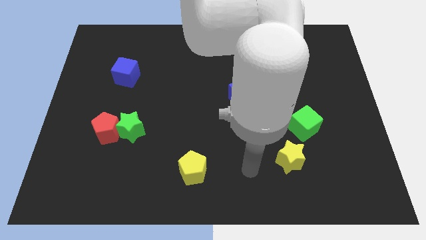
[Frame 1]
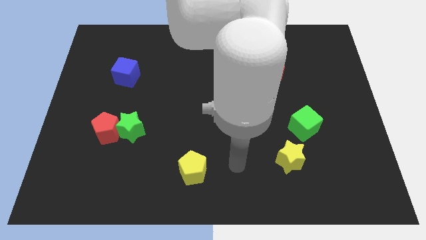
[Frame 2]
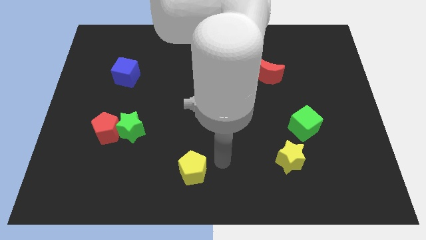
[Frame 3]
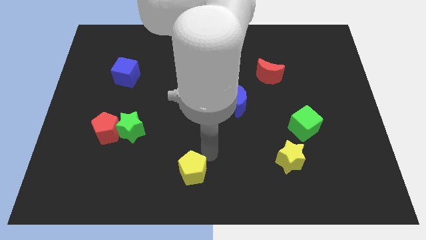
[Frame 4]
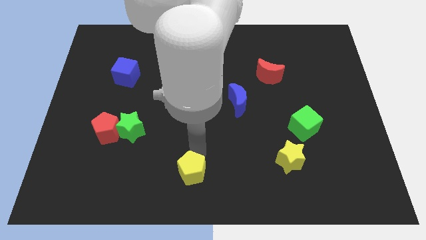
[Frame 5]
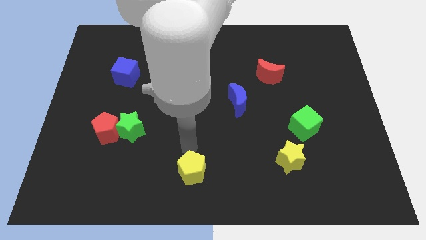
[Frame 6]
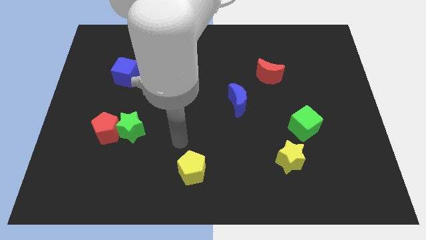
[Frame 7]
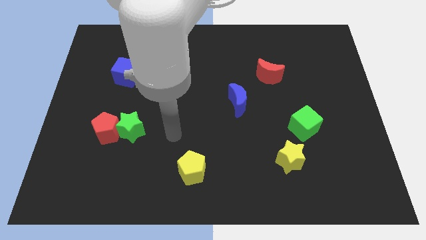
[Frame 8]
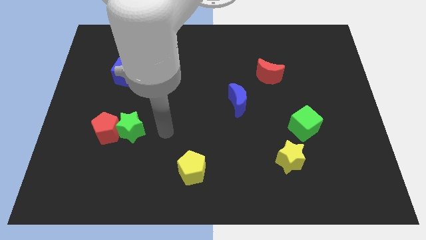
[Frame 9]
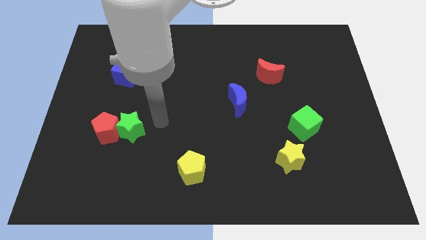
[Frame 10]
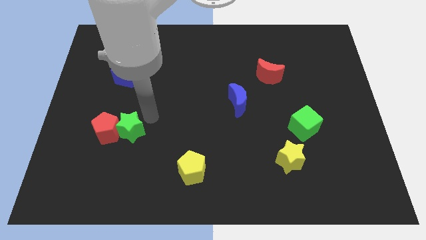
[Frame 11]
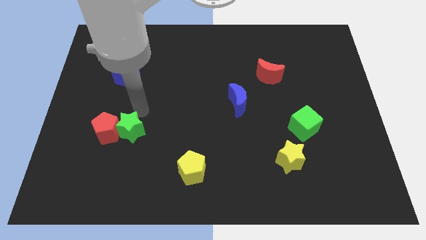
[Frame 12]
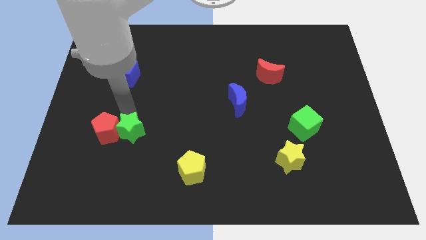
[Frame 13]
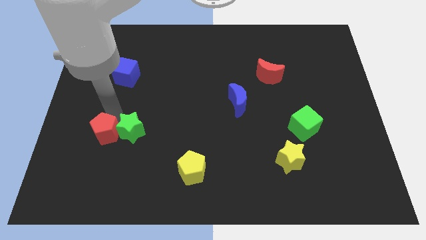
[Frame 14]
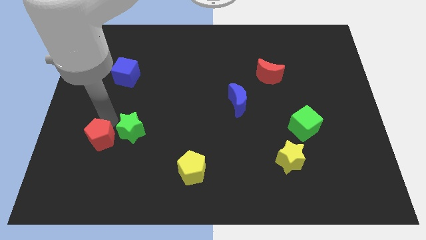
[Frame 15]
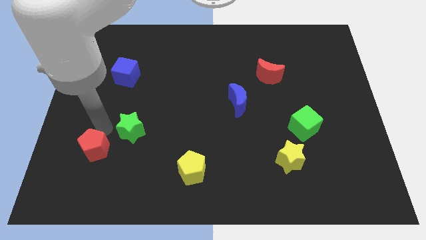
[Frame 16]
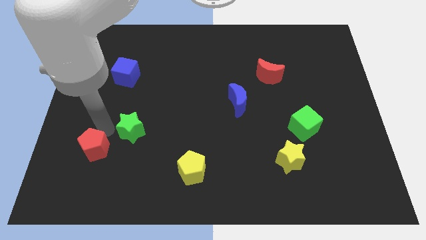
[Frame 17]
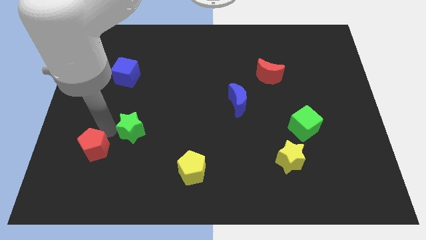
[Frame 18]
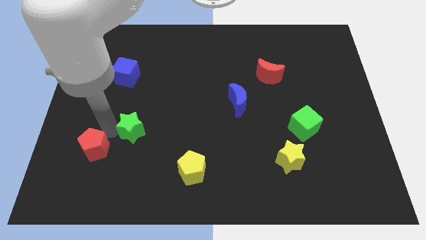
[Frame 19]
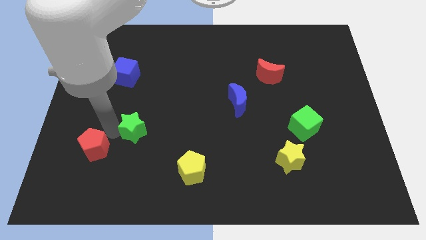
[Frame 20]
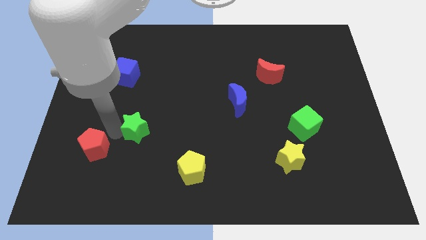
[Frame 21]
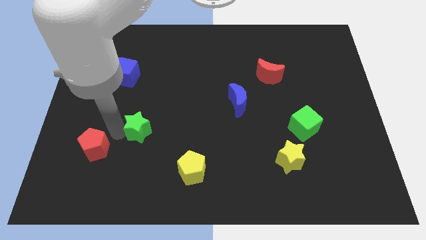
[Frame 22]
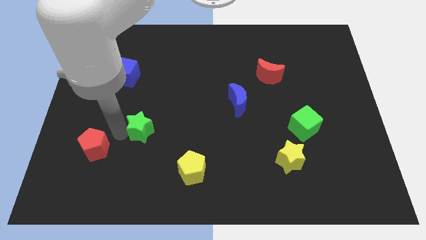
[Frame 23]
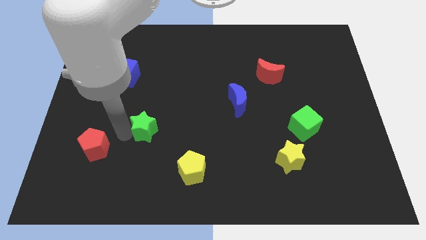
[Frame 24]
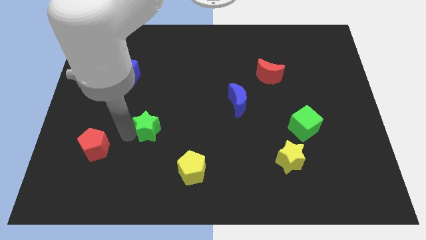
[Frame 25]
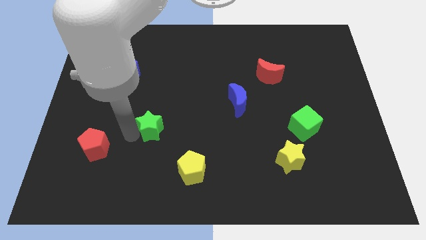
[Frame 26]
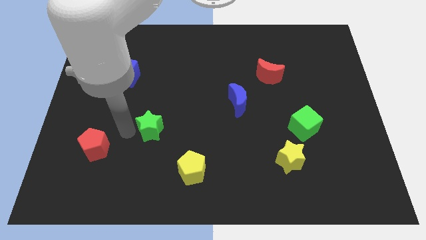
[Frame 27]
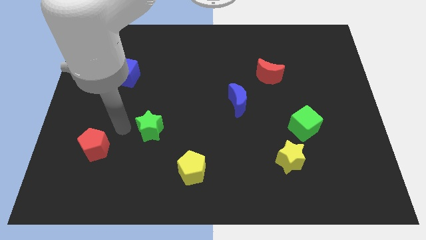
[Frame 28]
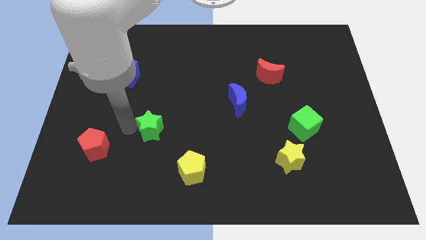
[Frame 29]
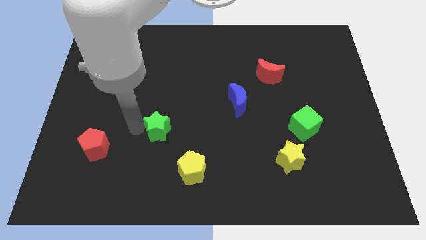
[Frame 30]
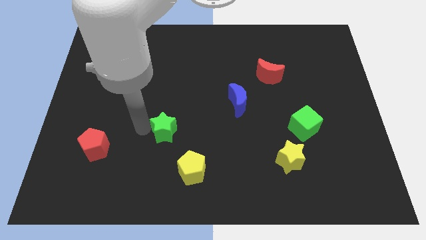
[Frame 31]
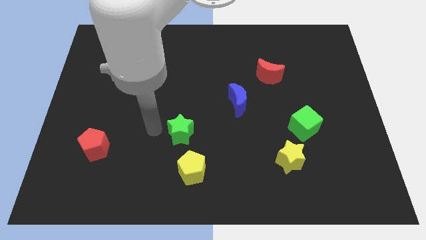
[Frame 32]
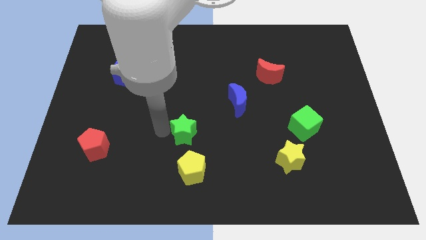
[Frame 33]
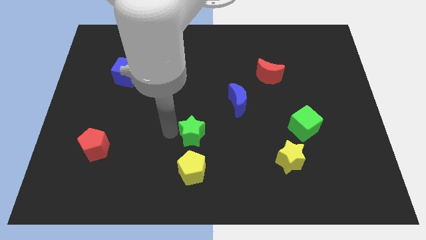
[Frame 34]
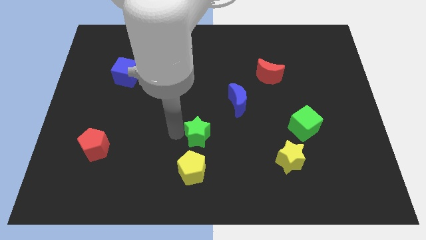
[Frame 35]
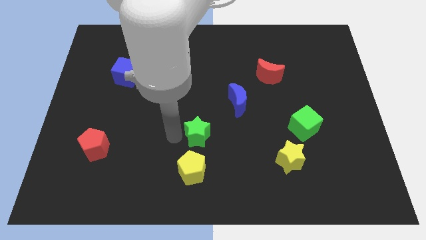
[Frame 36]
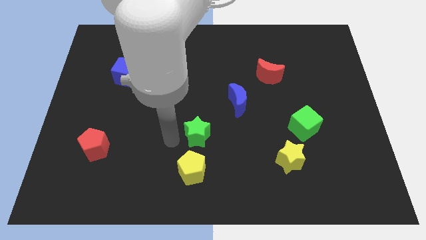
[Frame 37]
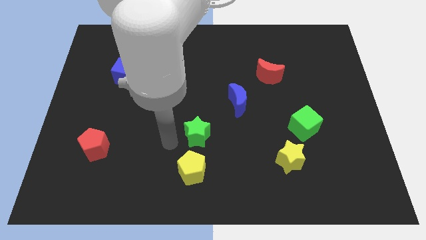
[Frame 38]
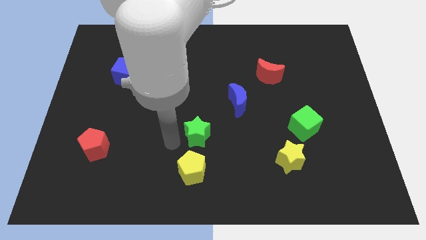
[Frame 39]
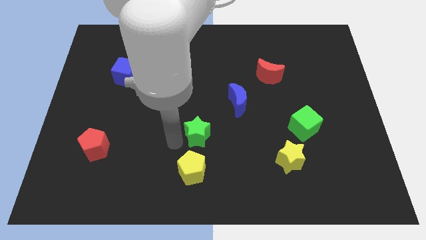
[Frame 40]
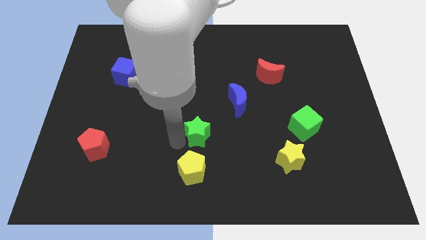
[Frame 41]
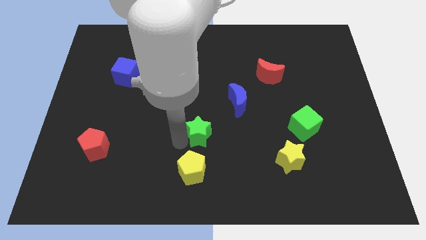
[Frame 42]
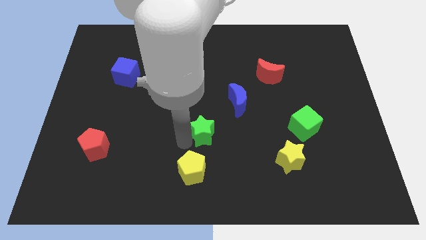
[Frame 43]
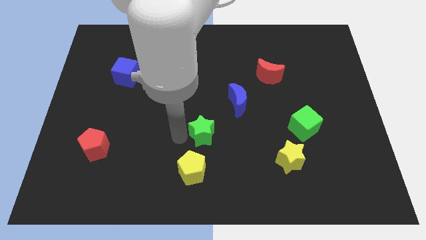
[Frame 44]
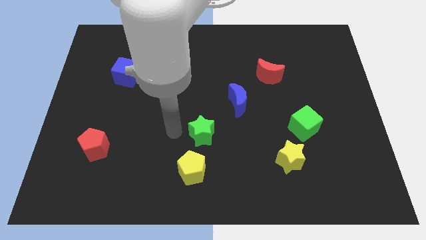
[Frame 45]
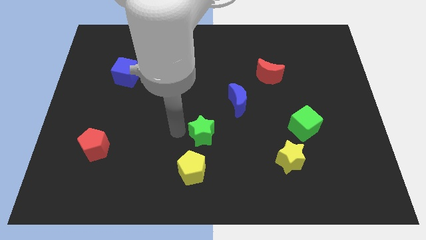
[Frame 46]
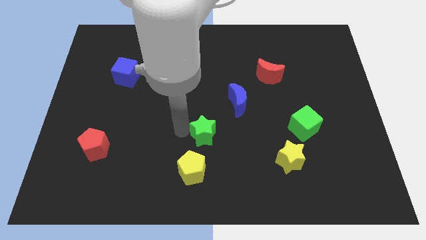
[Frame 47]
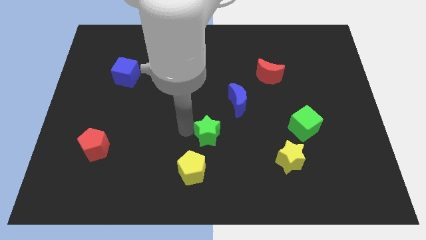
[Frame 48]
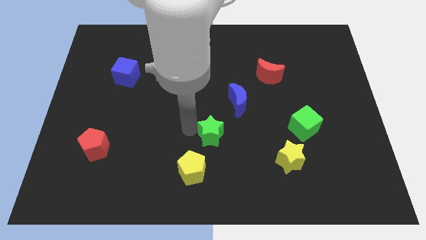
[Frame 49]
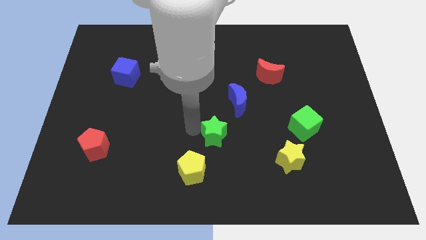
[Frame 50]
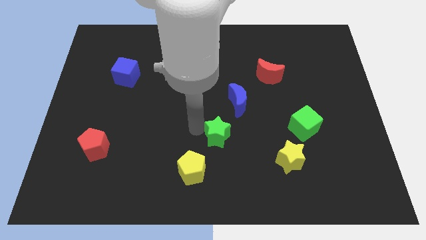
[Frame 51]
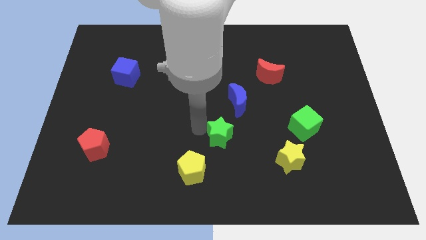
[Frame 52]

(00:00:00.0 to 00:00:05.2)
slide the green star to the right

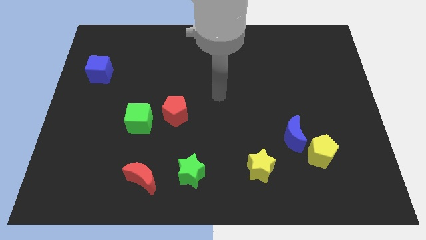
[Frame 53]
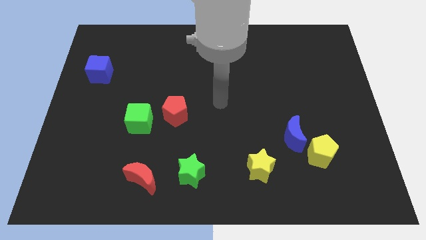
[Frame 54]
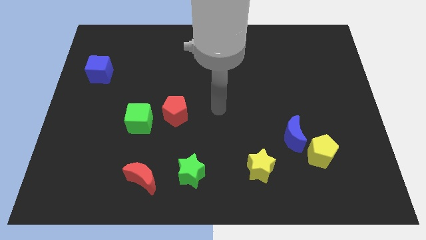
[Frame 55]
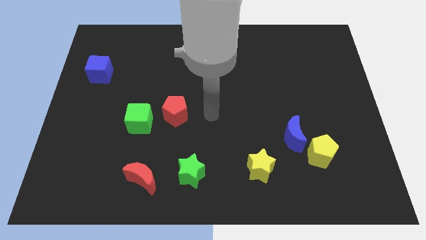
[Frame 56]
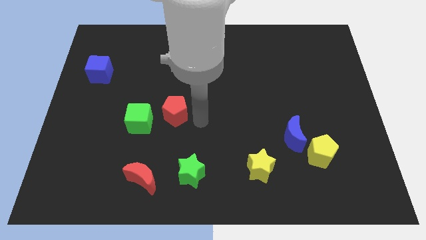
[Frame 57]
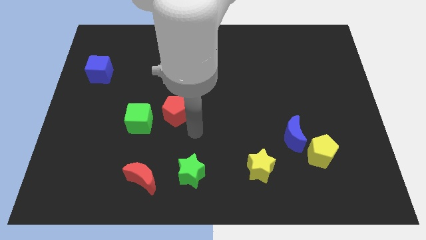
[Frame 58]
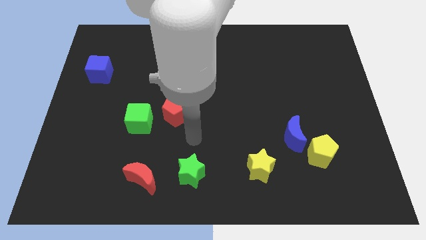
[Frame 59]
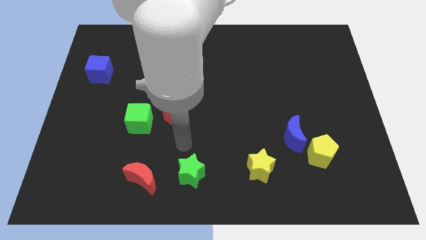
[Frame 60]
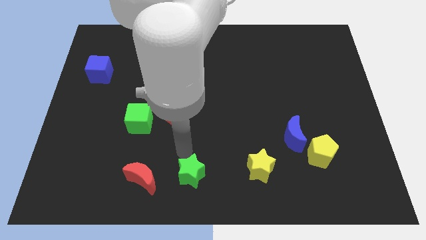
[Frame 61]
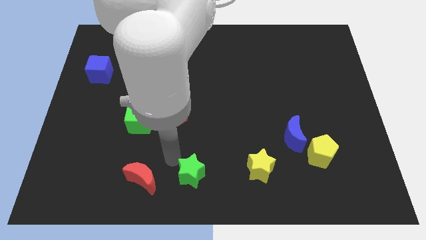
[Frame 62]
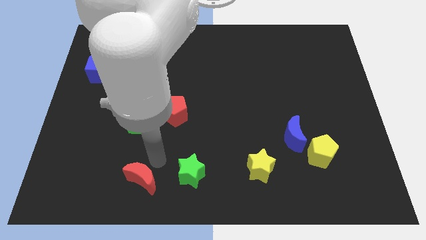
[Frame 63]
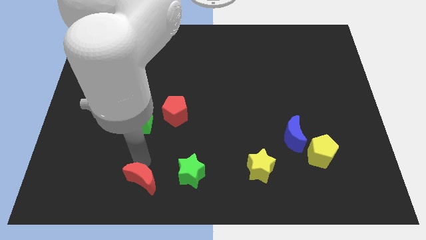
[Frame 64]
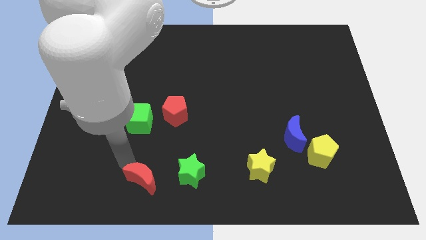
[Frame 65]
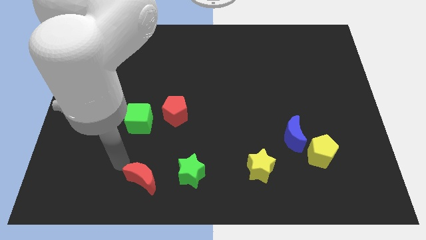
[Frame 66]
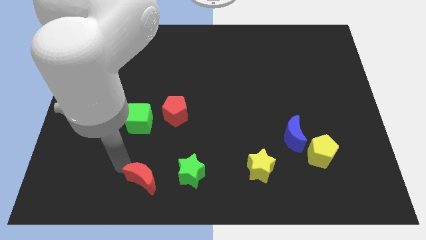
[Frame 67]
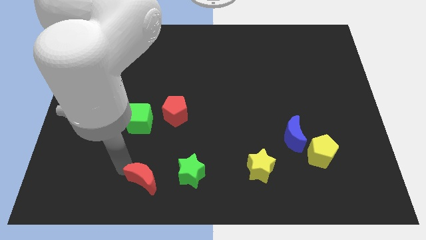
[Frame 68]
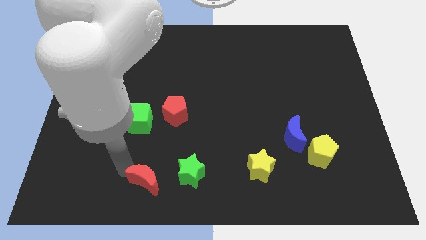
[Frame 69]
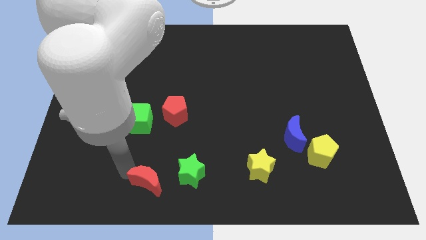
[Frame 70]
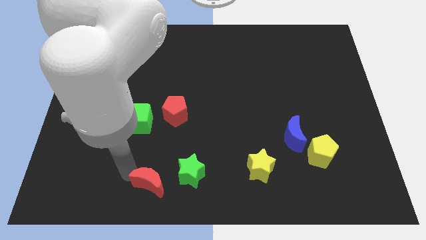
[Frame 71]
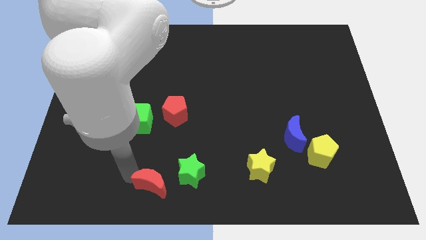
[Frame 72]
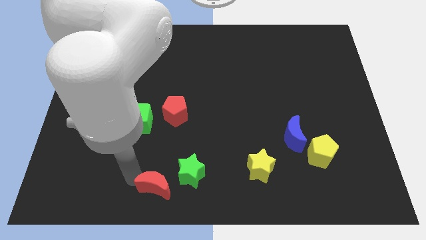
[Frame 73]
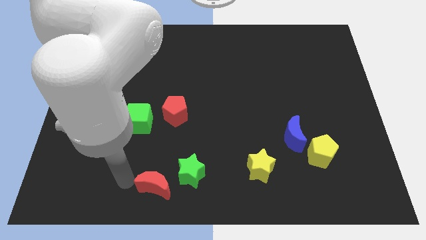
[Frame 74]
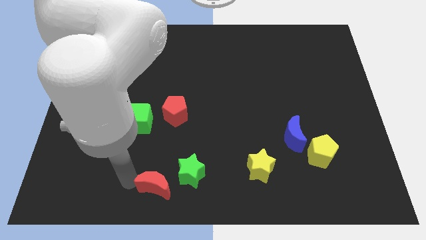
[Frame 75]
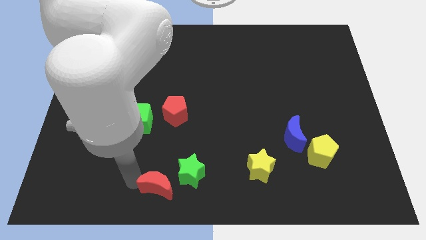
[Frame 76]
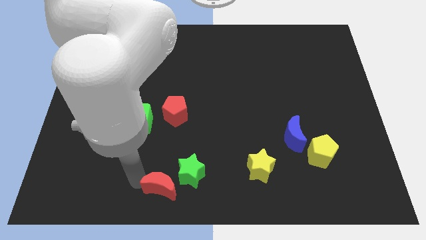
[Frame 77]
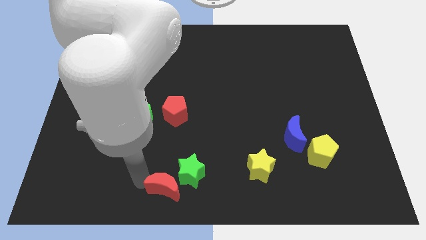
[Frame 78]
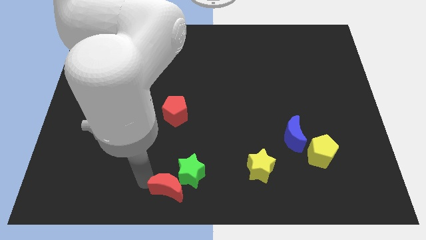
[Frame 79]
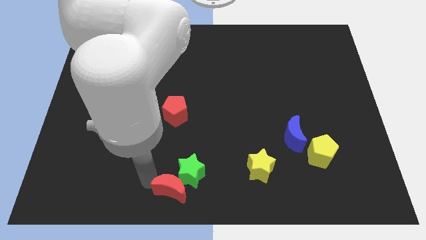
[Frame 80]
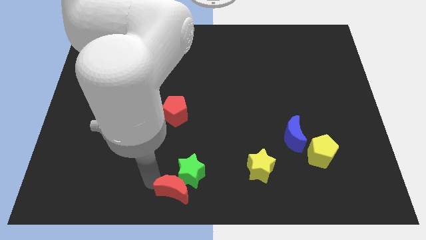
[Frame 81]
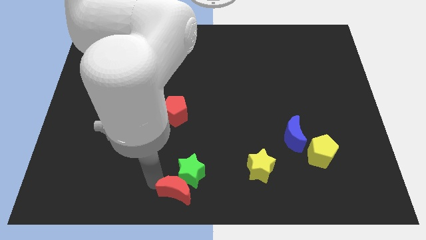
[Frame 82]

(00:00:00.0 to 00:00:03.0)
push the red moon right slightly
